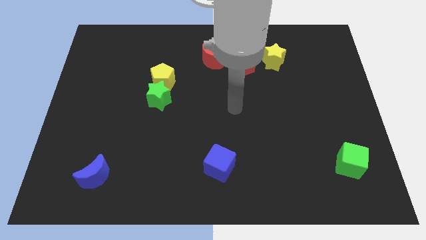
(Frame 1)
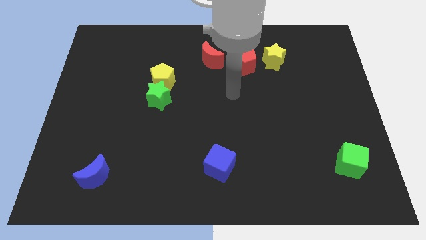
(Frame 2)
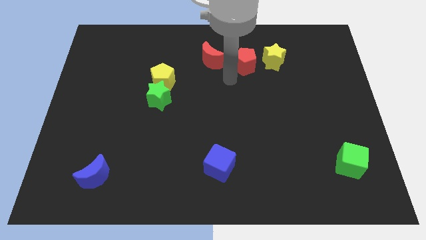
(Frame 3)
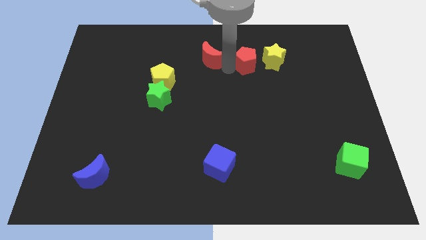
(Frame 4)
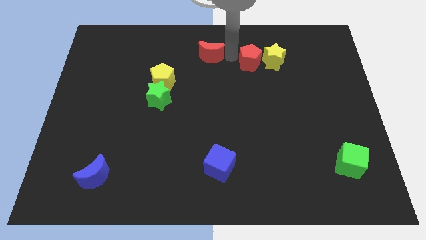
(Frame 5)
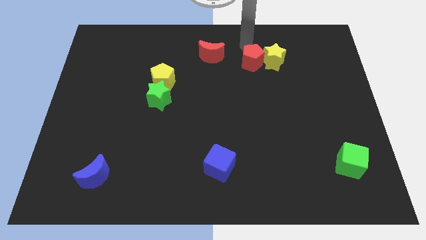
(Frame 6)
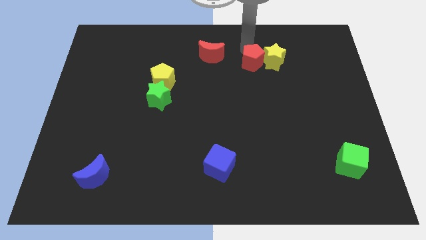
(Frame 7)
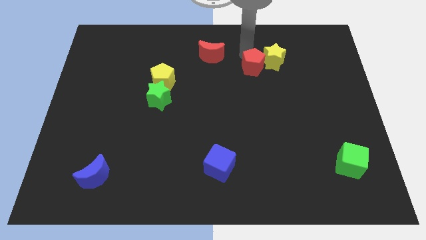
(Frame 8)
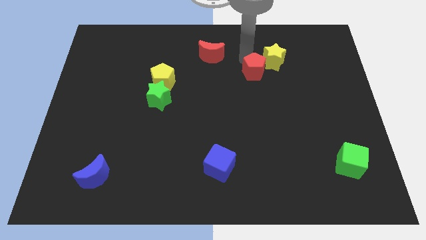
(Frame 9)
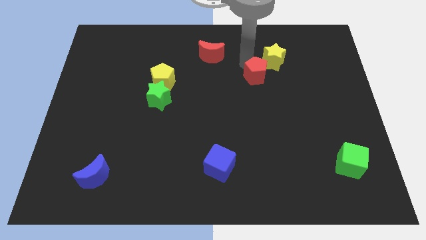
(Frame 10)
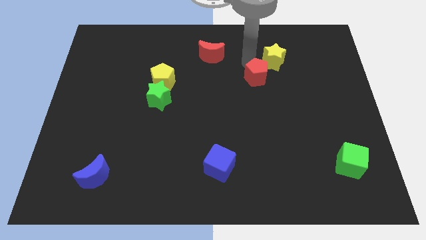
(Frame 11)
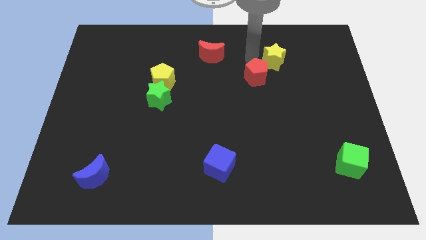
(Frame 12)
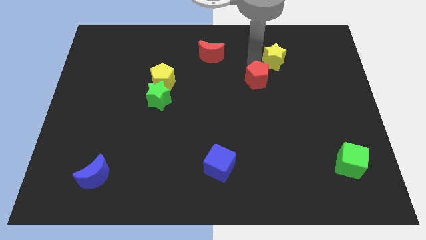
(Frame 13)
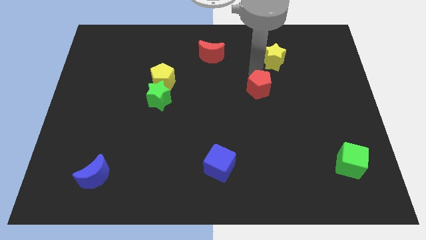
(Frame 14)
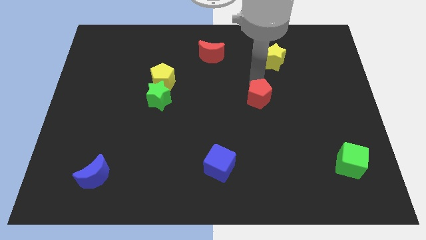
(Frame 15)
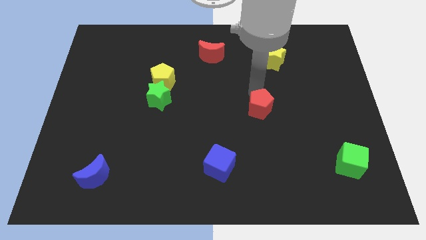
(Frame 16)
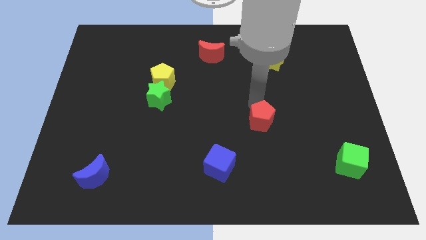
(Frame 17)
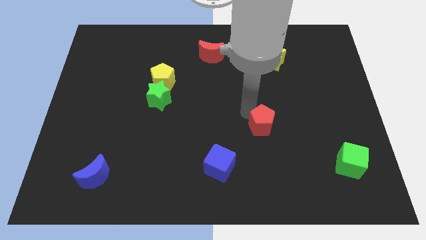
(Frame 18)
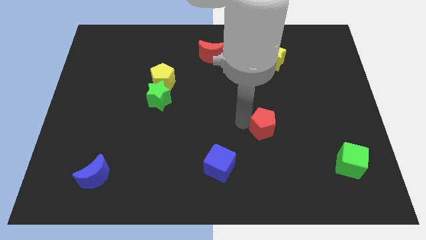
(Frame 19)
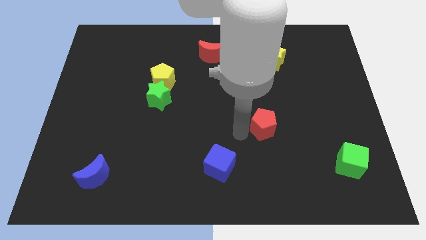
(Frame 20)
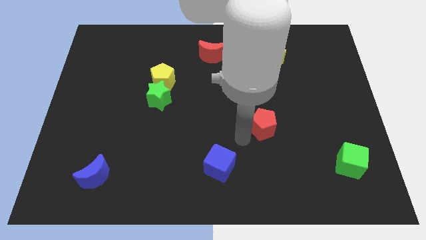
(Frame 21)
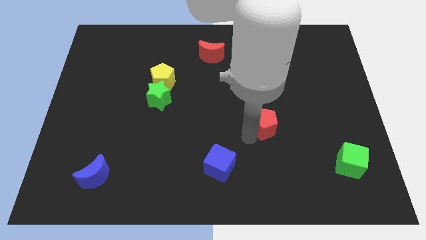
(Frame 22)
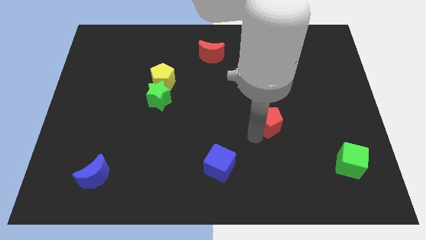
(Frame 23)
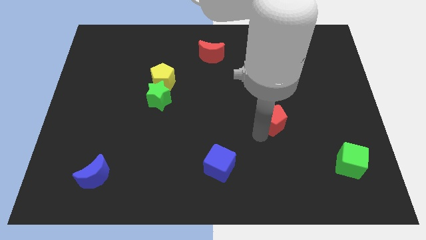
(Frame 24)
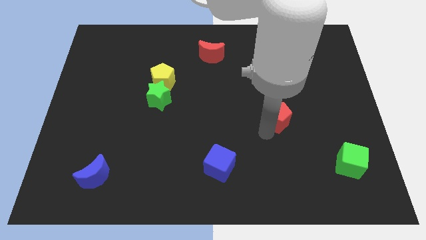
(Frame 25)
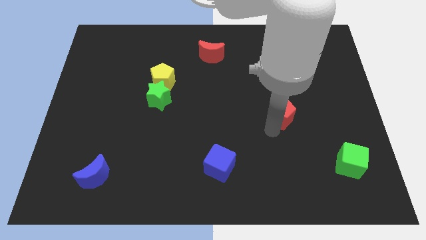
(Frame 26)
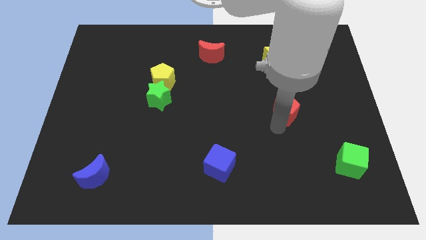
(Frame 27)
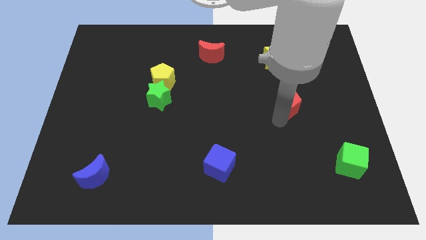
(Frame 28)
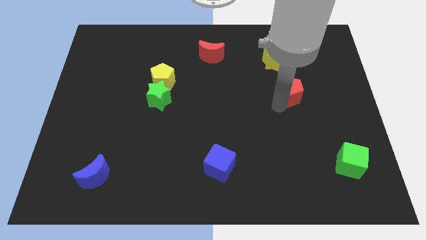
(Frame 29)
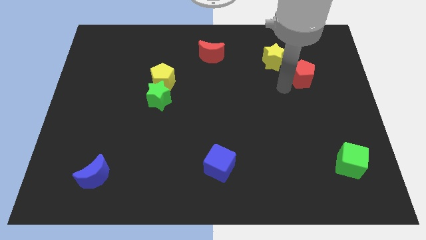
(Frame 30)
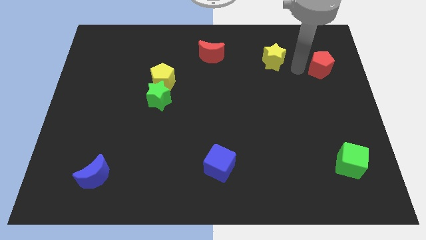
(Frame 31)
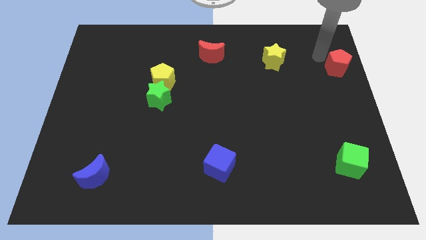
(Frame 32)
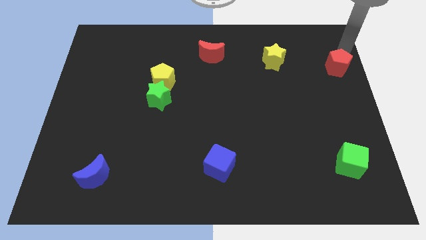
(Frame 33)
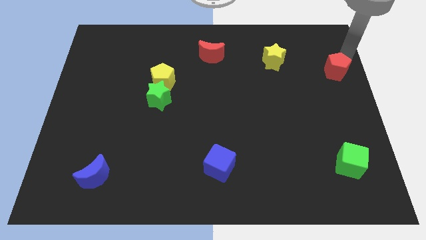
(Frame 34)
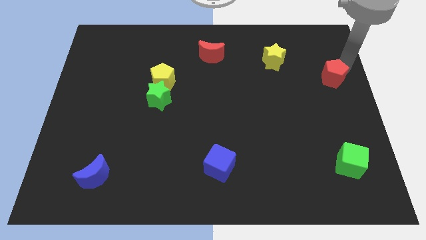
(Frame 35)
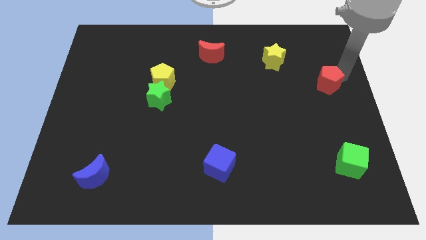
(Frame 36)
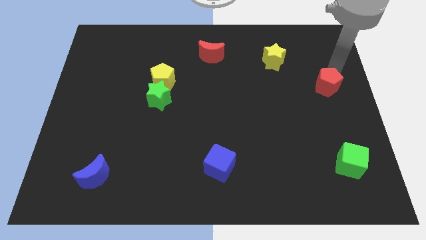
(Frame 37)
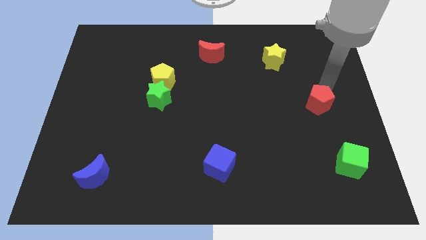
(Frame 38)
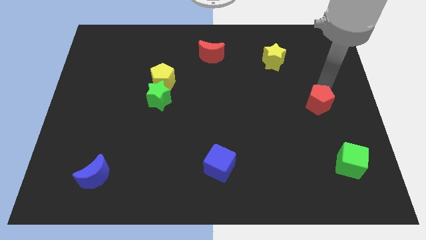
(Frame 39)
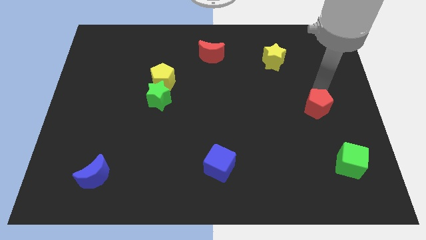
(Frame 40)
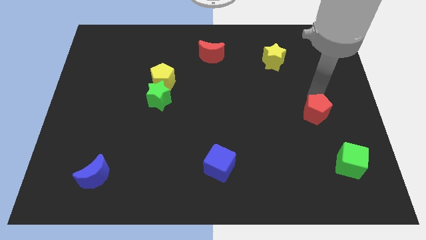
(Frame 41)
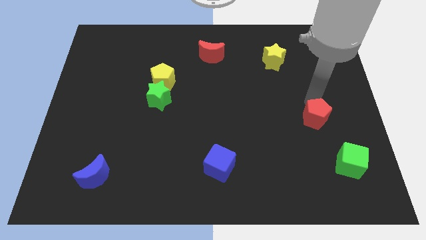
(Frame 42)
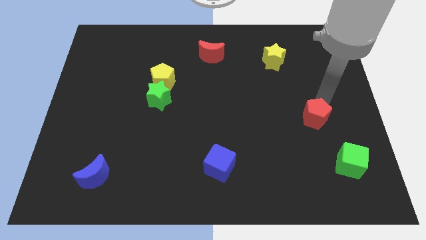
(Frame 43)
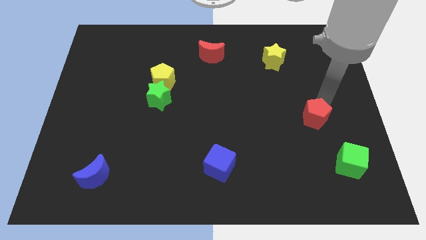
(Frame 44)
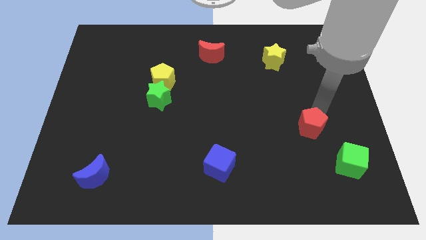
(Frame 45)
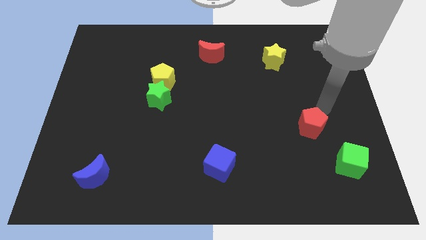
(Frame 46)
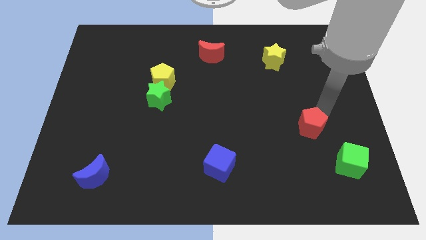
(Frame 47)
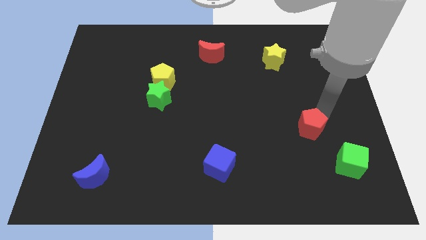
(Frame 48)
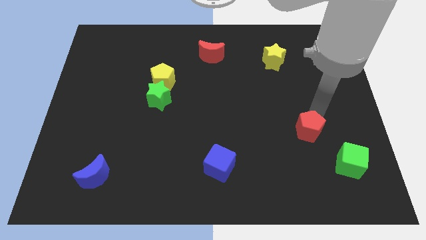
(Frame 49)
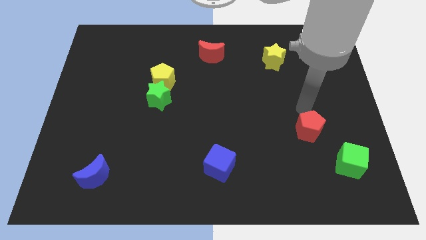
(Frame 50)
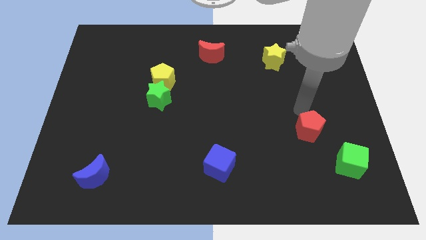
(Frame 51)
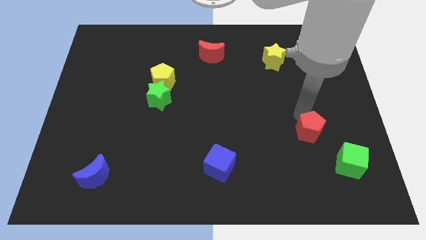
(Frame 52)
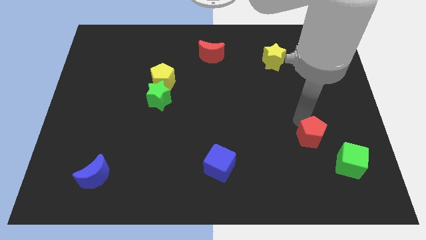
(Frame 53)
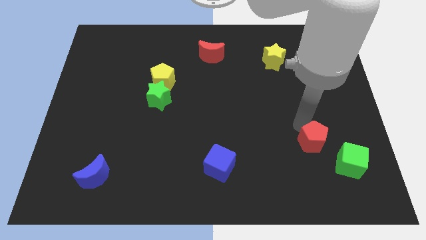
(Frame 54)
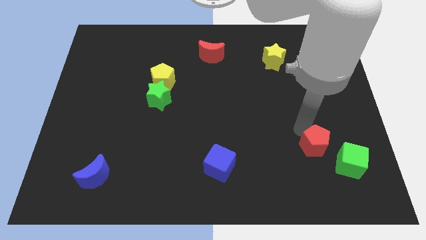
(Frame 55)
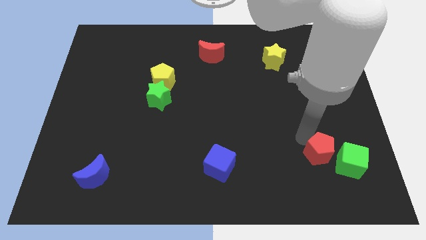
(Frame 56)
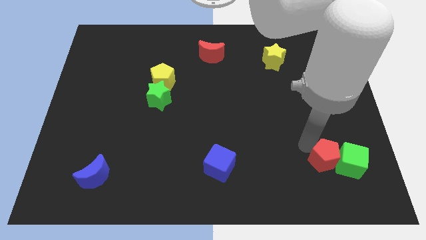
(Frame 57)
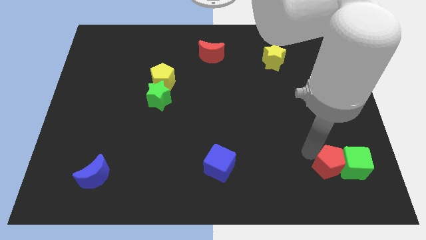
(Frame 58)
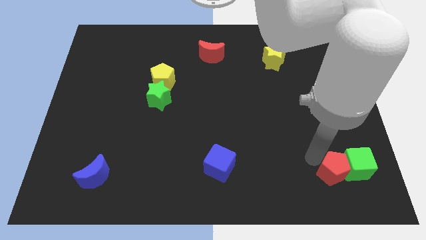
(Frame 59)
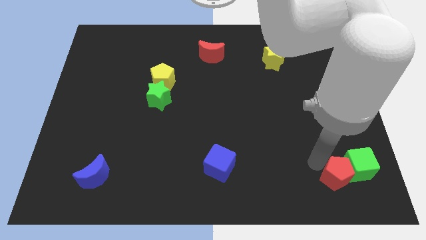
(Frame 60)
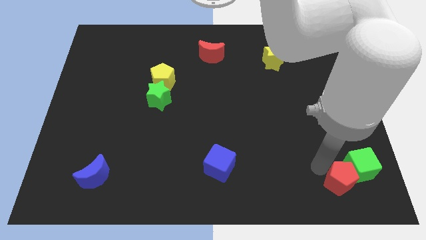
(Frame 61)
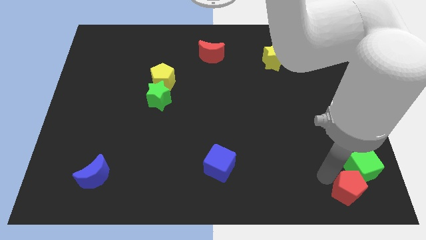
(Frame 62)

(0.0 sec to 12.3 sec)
put the red pentagon to the bottom right of the board
